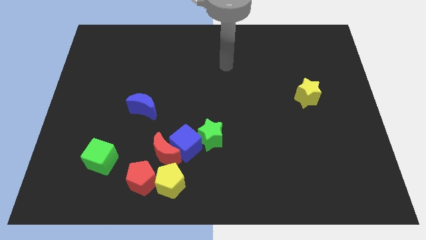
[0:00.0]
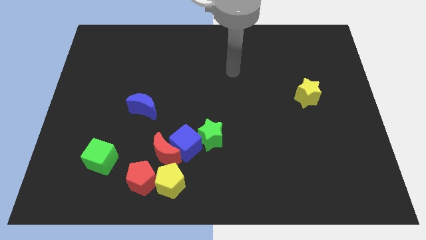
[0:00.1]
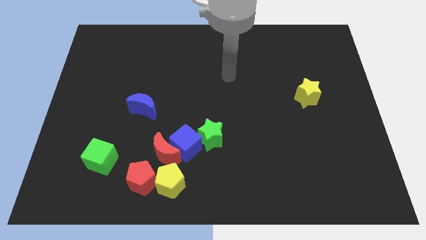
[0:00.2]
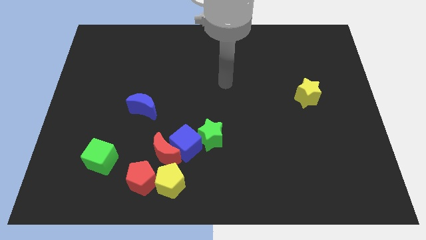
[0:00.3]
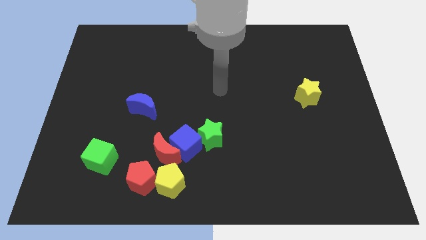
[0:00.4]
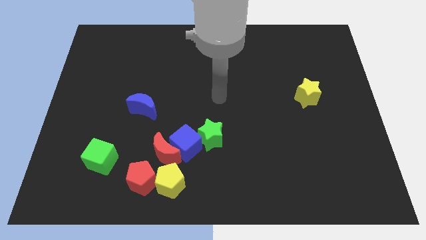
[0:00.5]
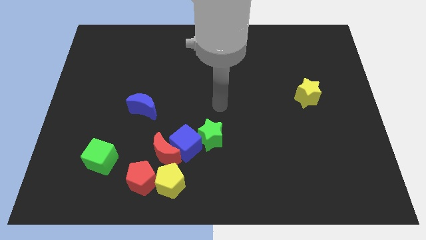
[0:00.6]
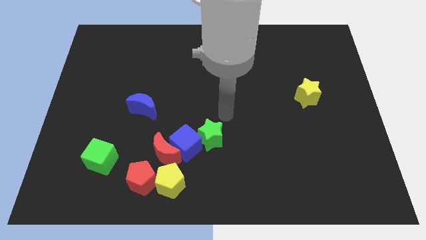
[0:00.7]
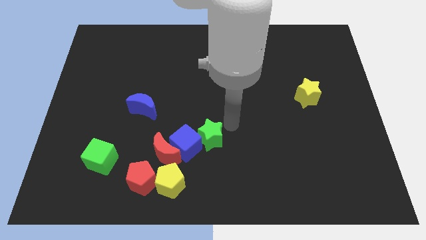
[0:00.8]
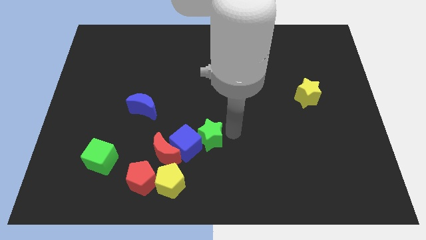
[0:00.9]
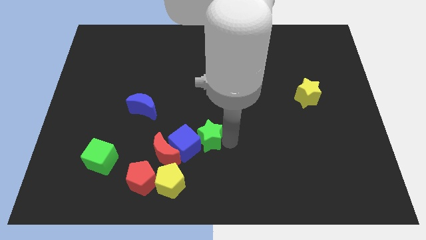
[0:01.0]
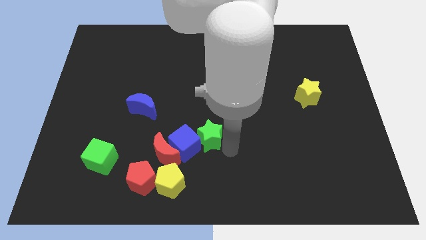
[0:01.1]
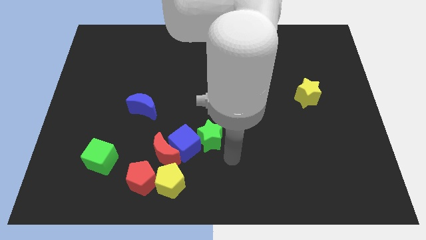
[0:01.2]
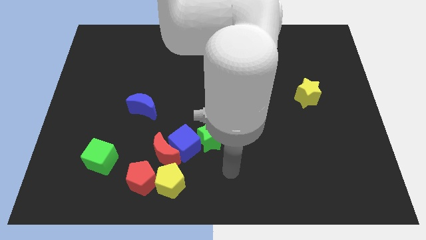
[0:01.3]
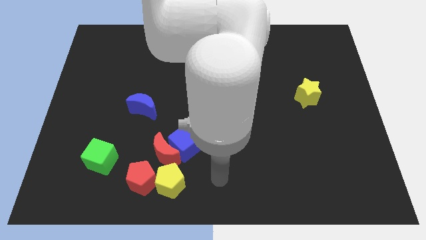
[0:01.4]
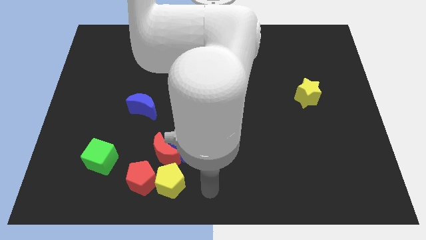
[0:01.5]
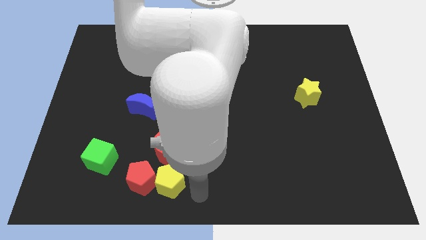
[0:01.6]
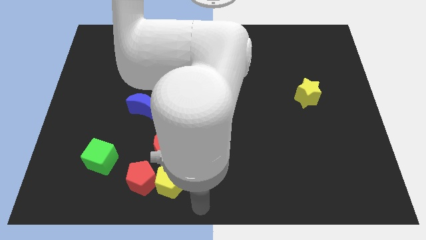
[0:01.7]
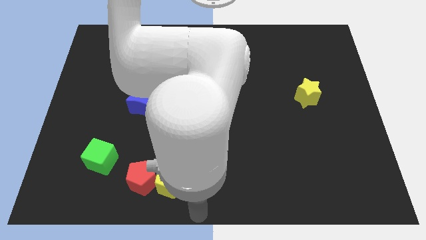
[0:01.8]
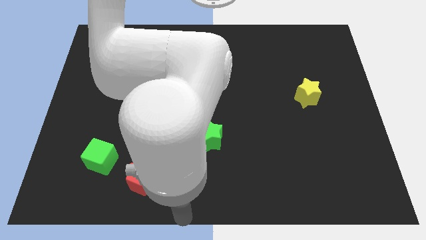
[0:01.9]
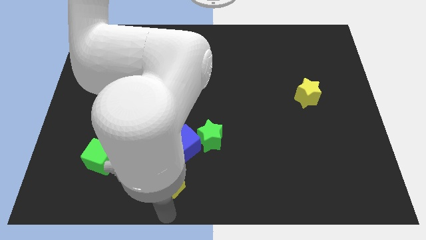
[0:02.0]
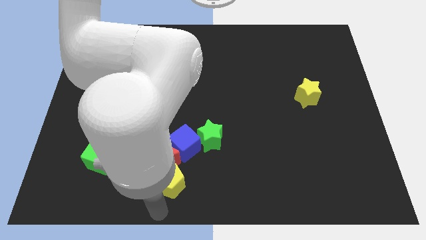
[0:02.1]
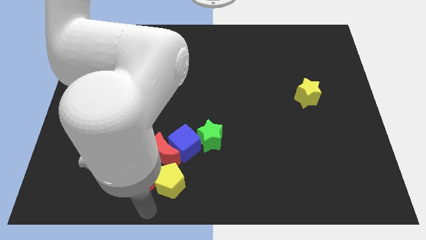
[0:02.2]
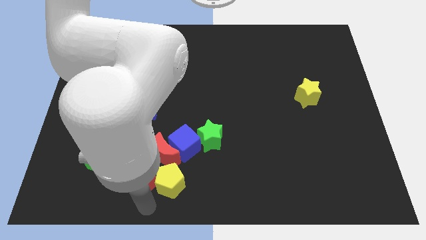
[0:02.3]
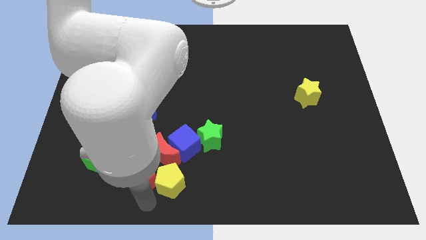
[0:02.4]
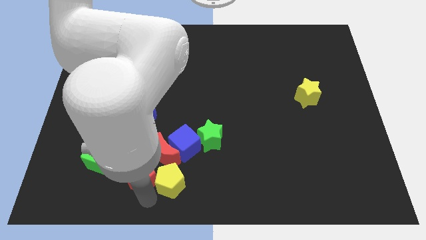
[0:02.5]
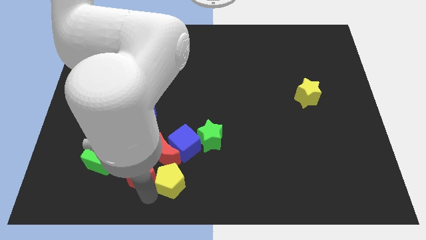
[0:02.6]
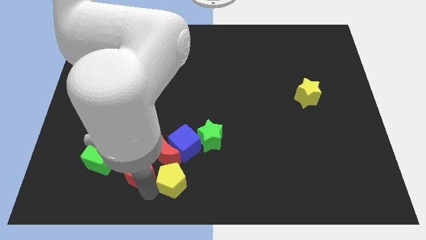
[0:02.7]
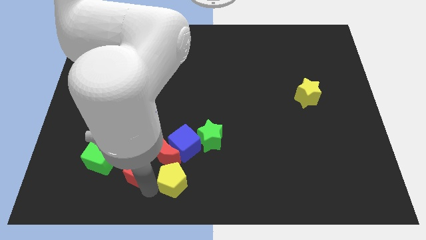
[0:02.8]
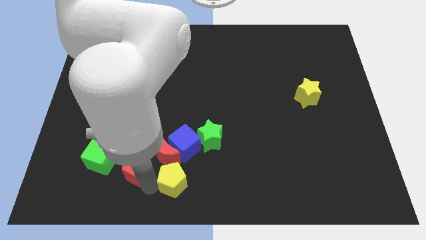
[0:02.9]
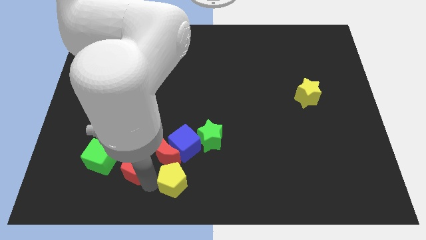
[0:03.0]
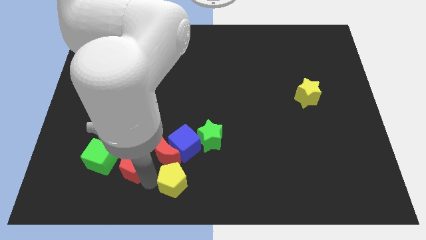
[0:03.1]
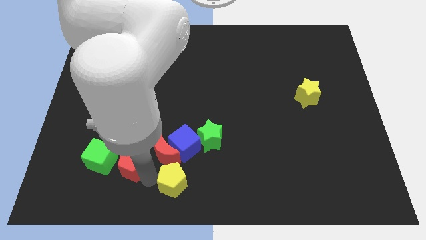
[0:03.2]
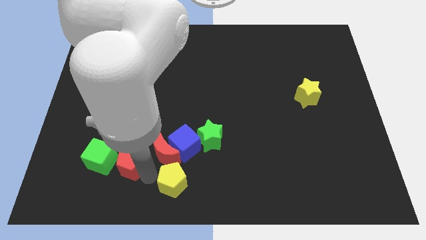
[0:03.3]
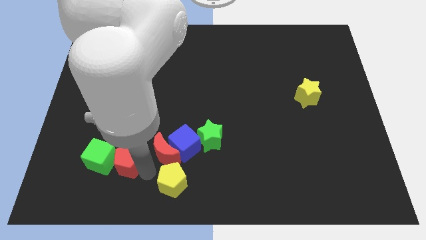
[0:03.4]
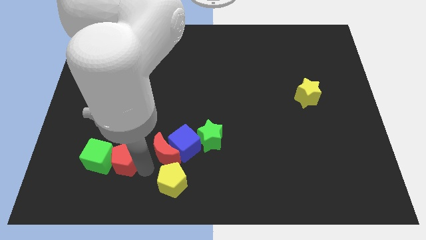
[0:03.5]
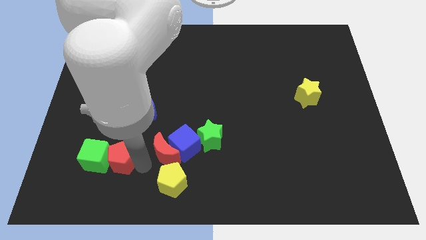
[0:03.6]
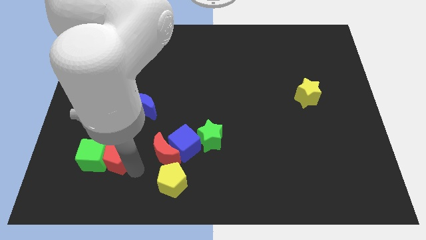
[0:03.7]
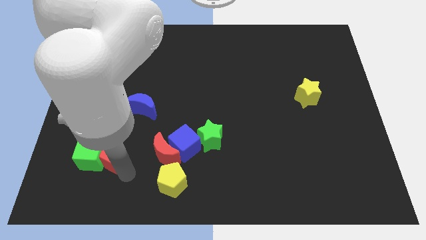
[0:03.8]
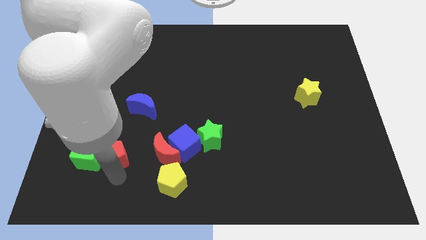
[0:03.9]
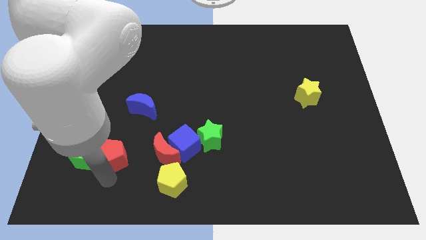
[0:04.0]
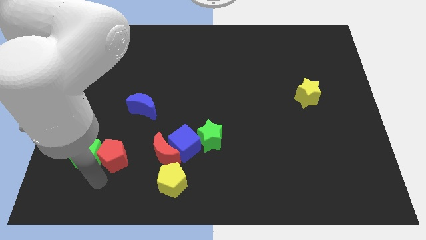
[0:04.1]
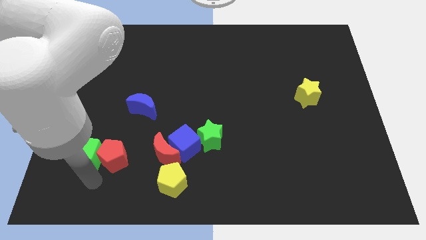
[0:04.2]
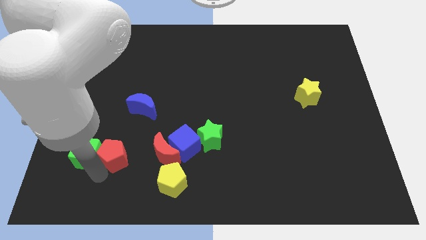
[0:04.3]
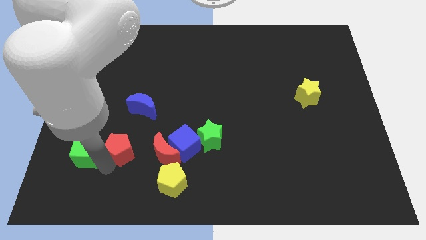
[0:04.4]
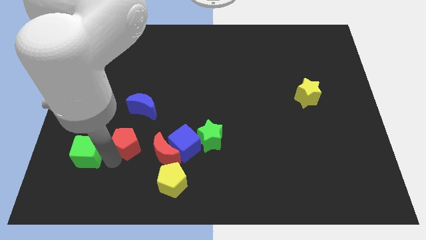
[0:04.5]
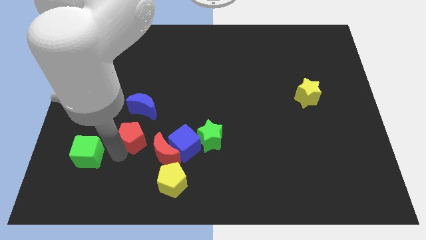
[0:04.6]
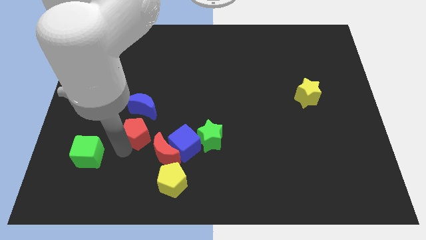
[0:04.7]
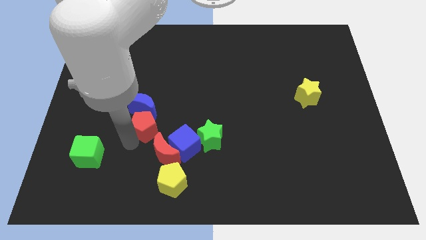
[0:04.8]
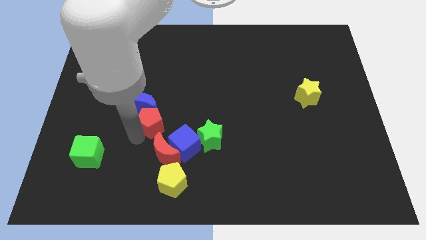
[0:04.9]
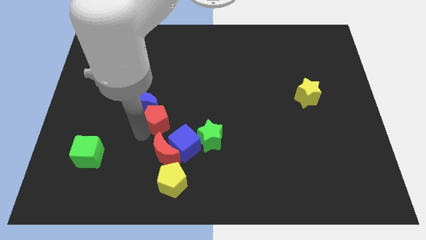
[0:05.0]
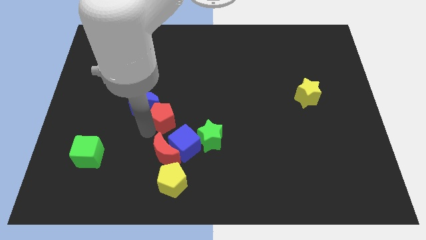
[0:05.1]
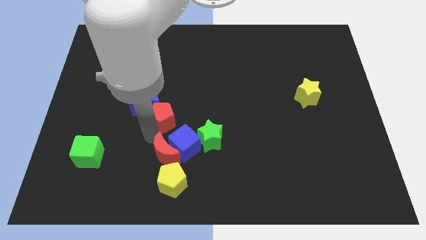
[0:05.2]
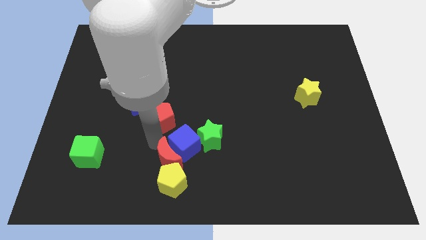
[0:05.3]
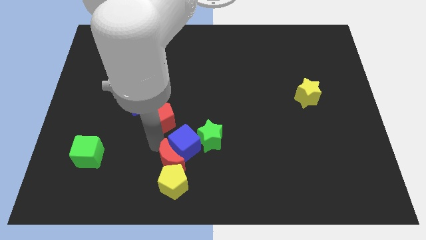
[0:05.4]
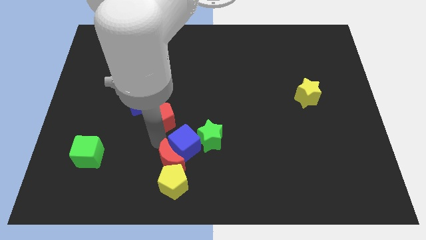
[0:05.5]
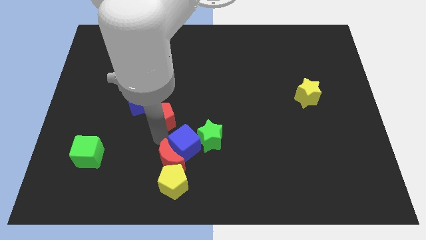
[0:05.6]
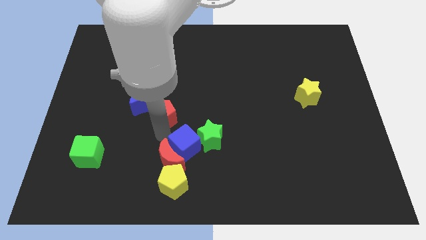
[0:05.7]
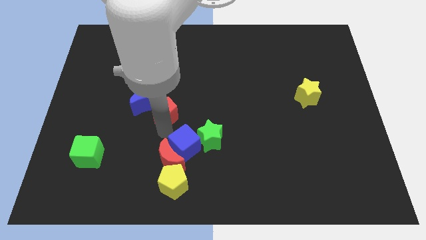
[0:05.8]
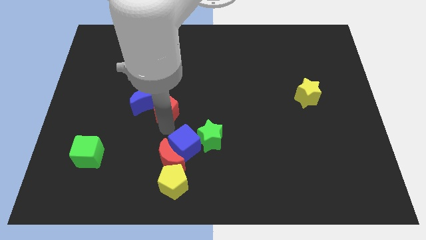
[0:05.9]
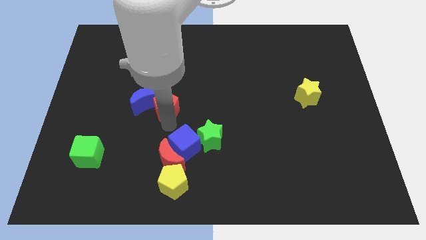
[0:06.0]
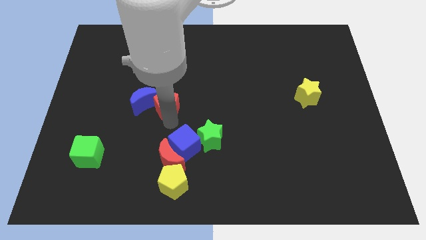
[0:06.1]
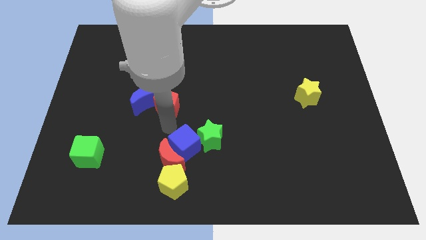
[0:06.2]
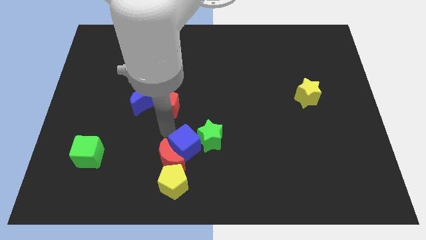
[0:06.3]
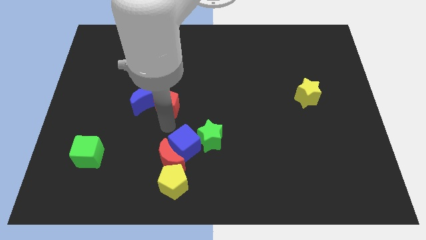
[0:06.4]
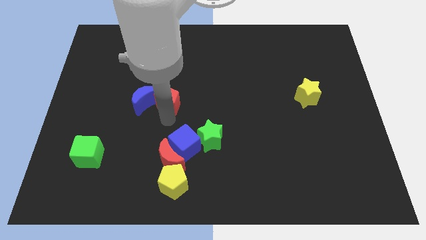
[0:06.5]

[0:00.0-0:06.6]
put the red pentagon diagonally up and to the right of the blue moon
